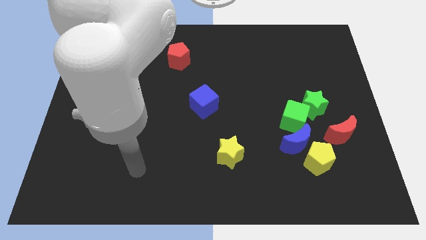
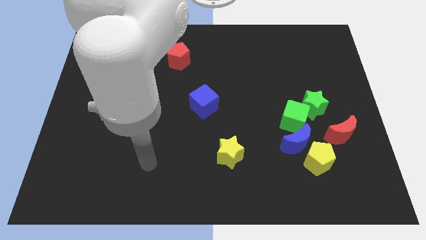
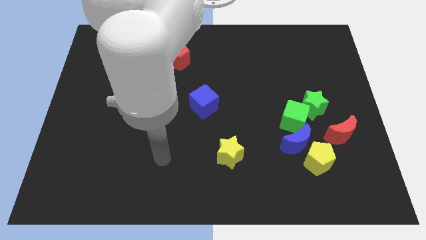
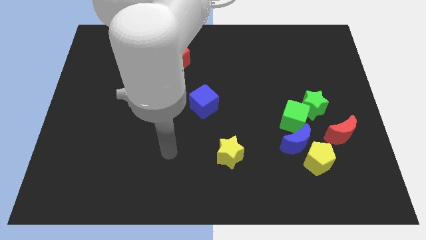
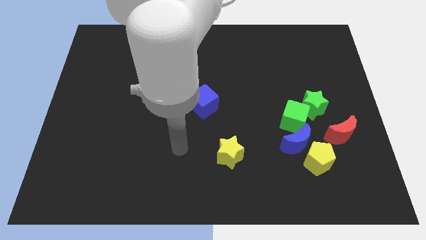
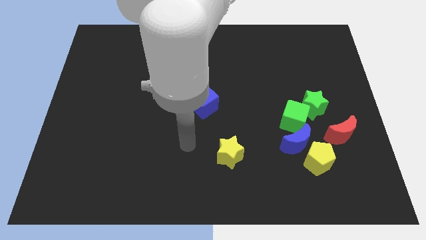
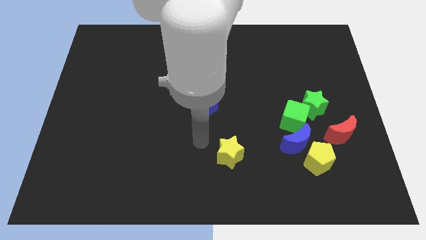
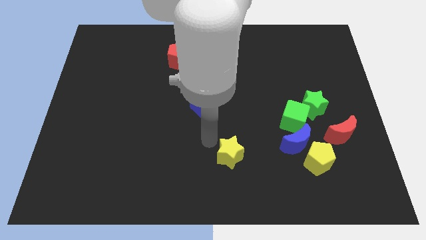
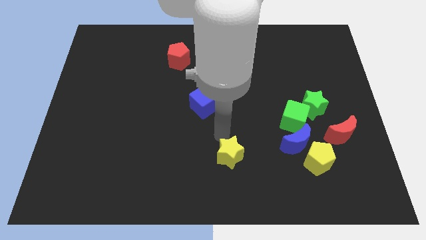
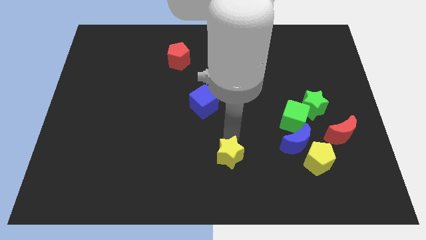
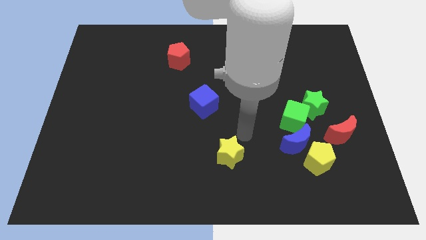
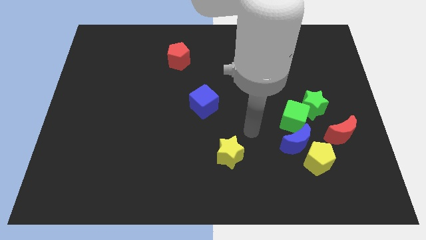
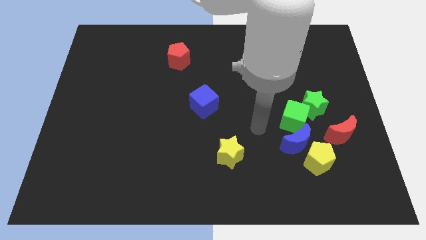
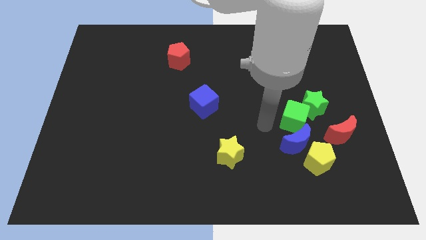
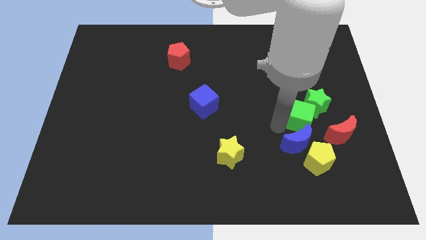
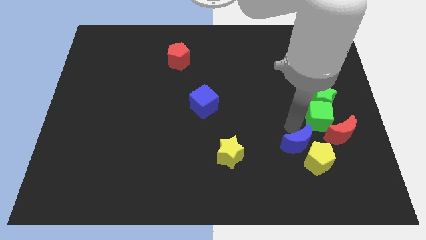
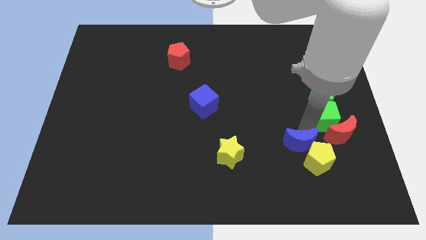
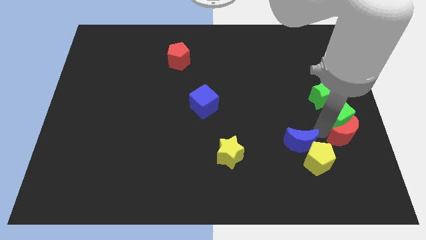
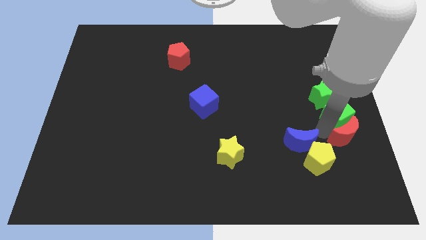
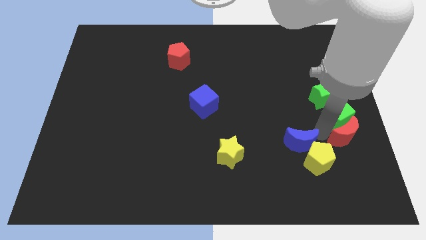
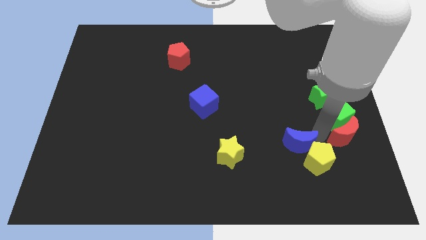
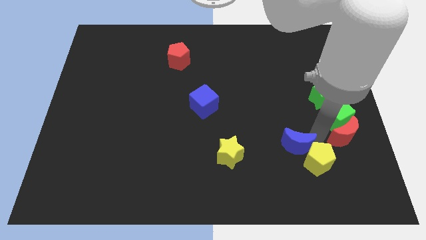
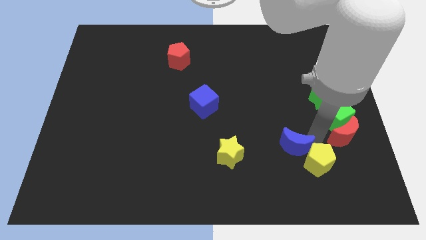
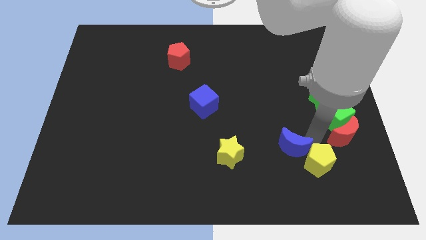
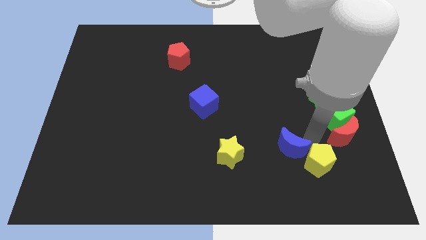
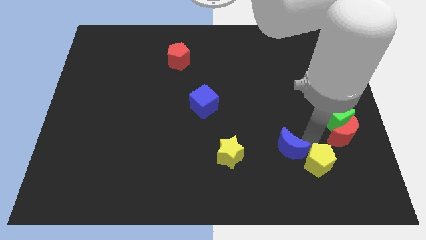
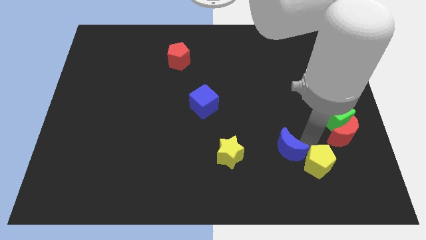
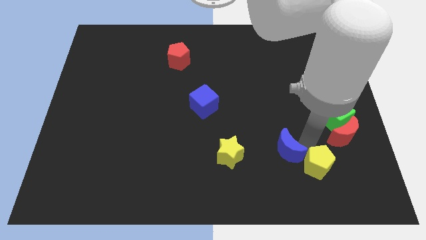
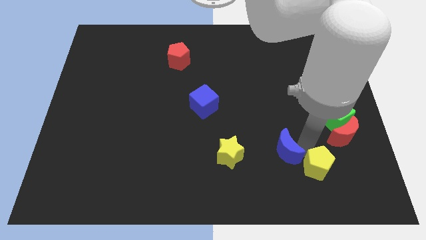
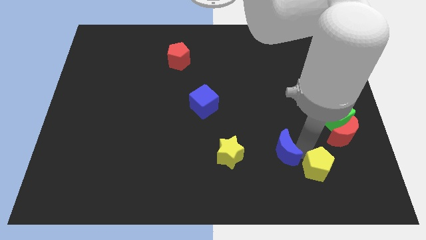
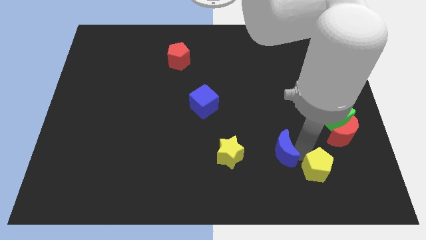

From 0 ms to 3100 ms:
separate the blue moon from the yellow pentagon and green cube

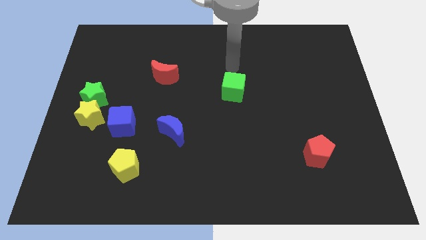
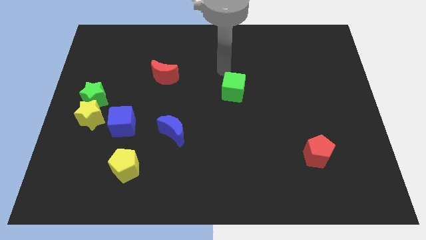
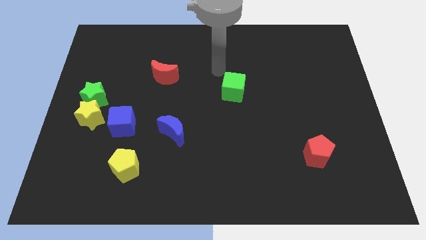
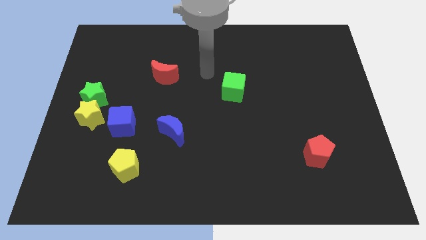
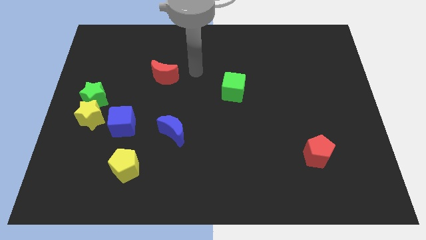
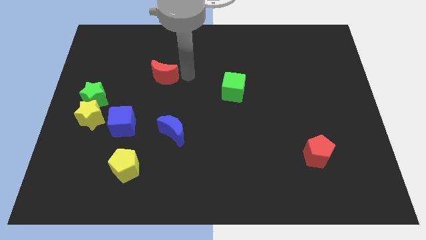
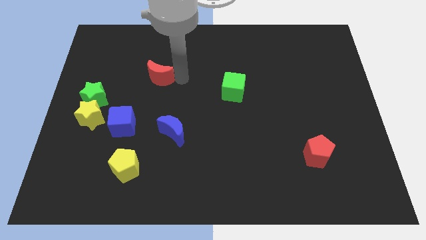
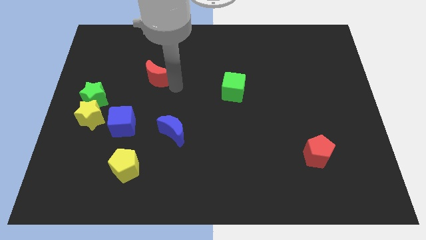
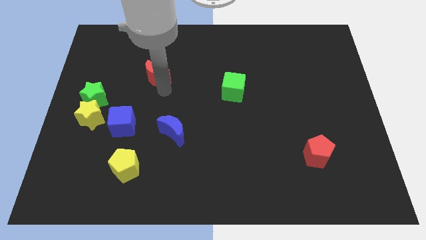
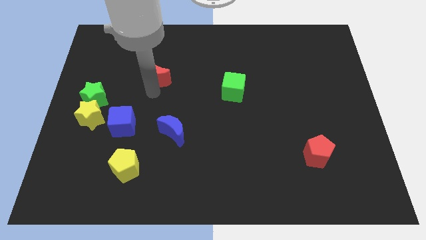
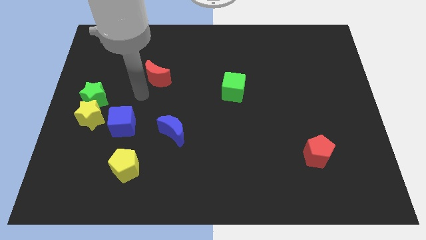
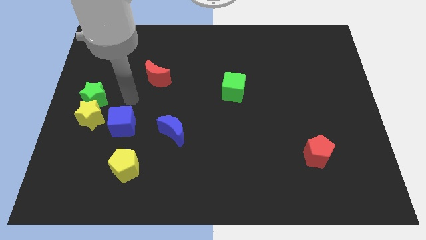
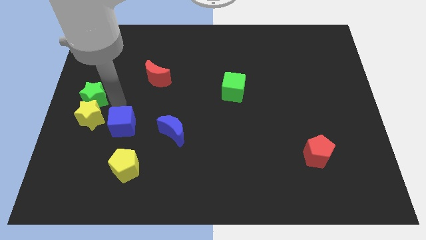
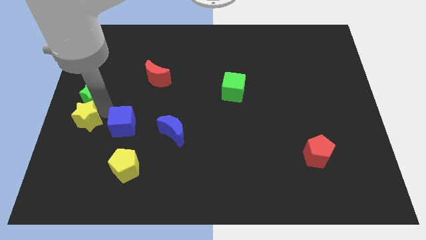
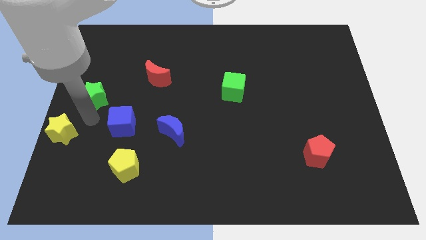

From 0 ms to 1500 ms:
move the green star away from the yellow star

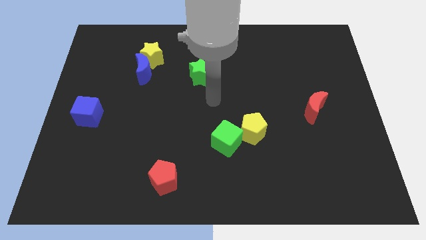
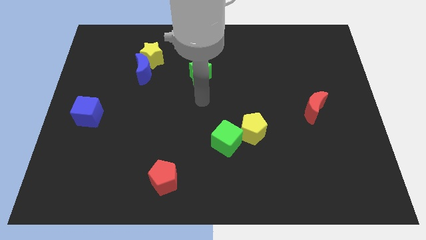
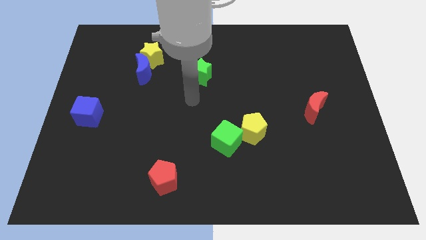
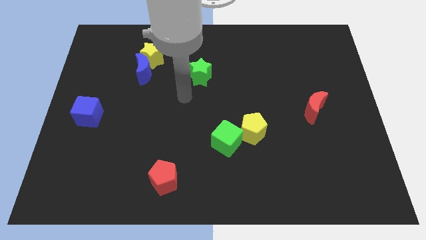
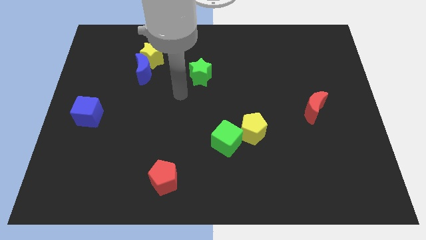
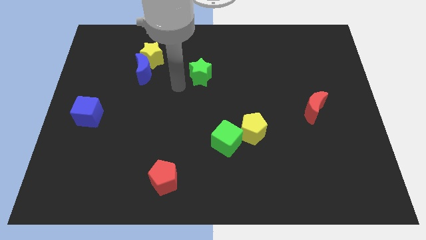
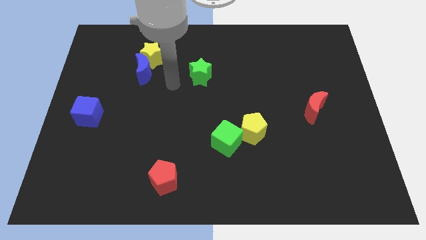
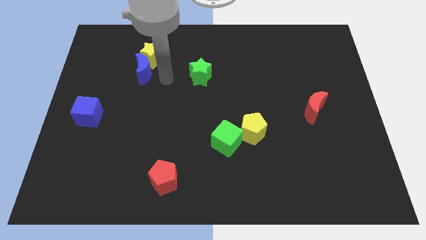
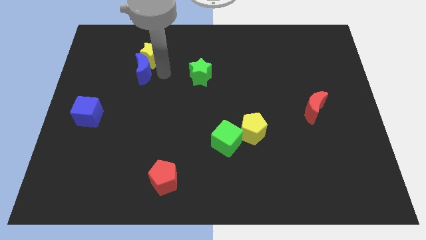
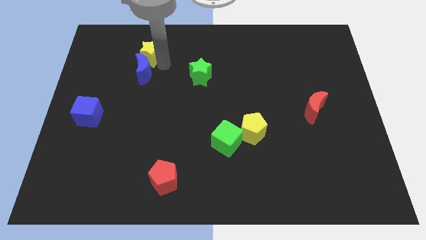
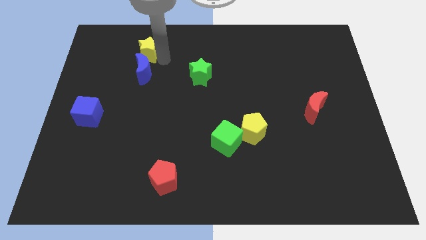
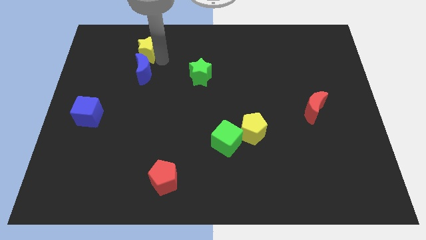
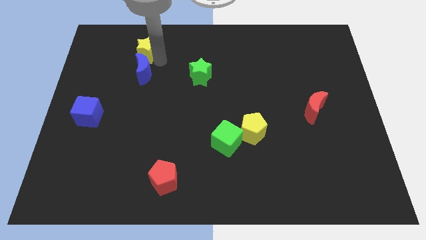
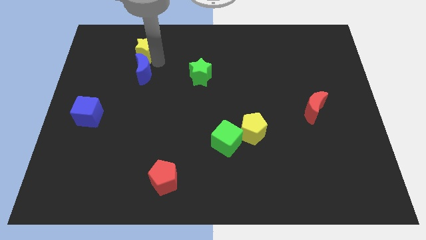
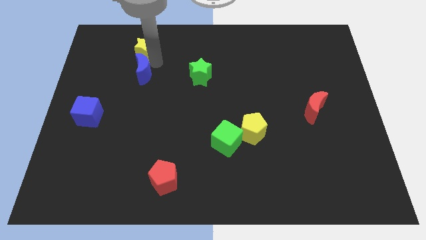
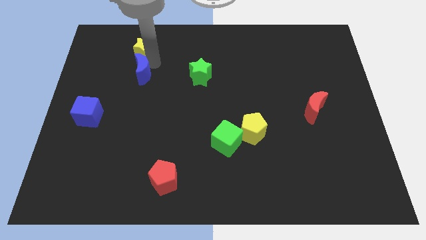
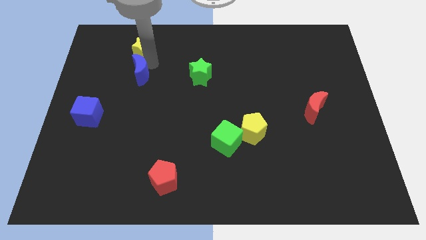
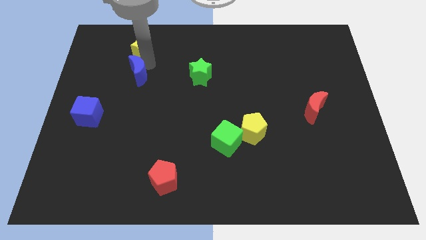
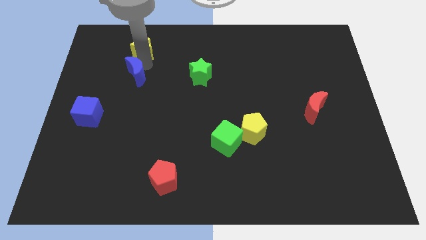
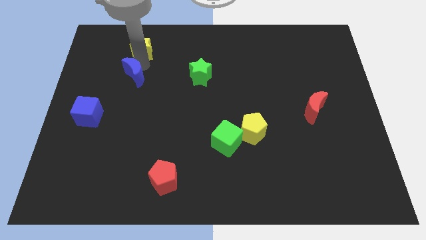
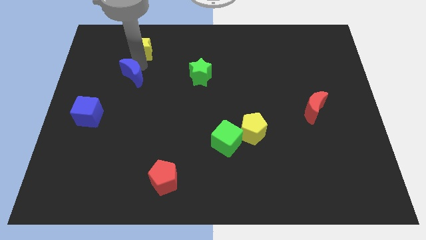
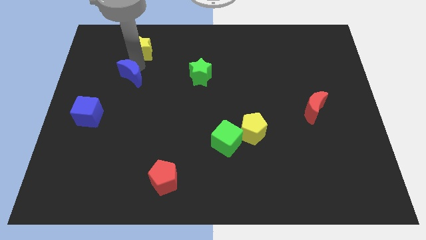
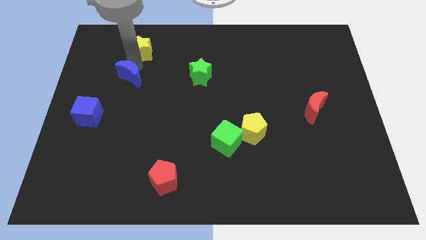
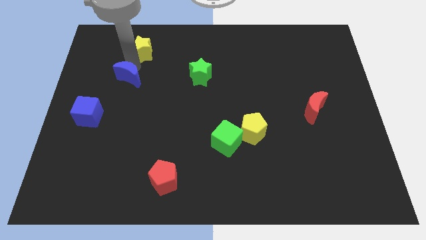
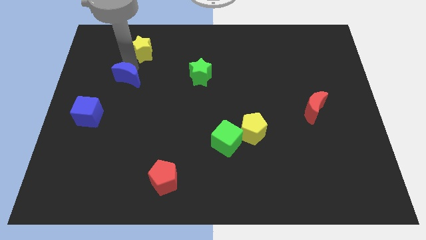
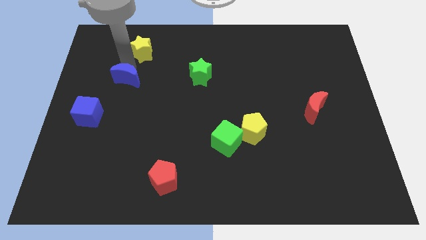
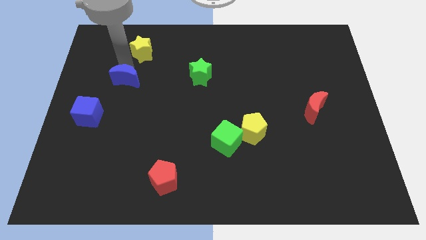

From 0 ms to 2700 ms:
pull the blue moon apart from the yellow star

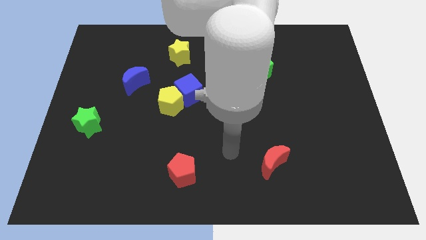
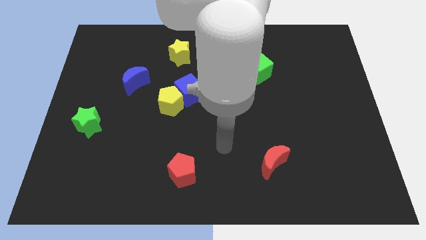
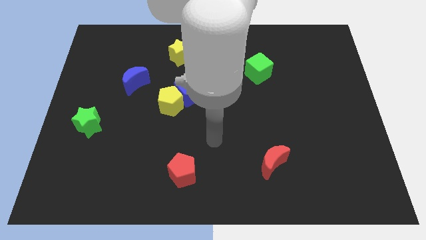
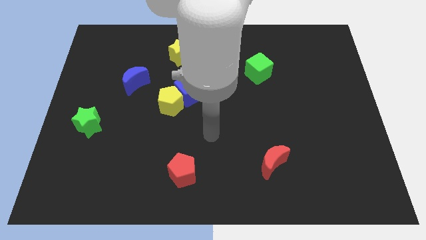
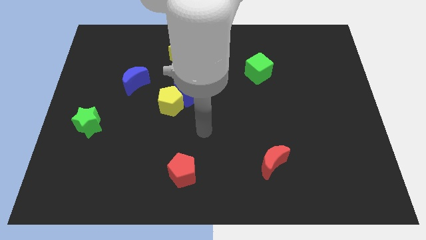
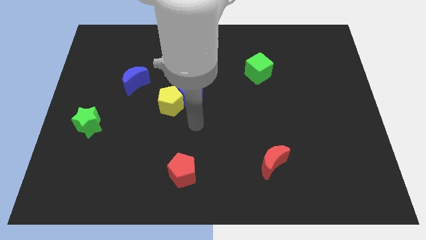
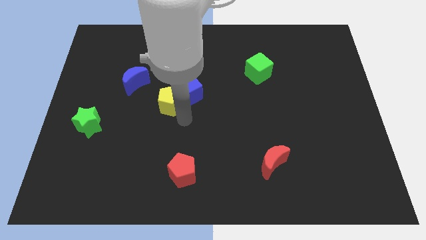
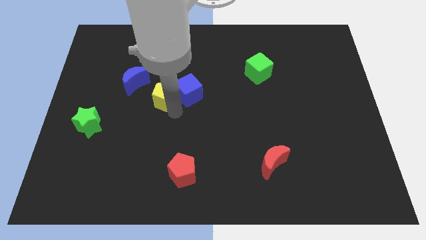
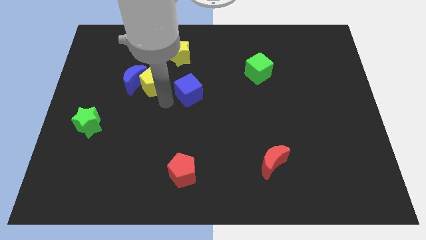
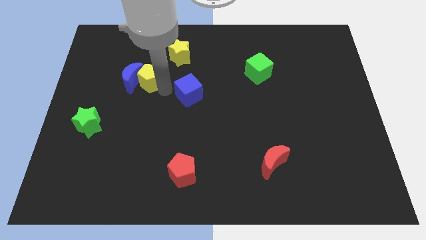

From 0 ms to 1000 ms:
move the blue cube away from the yellow pentagon

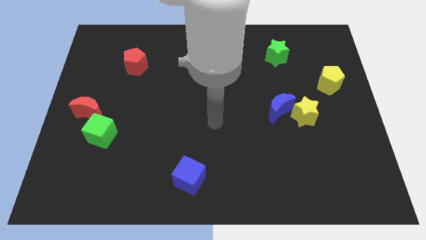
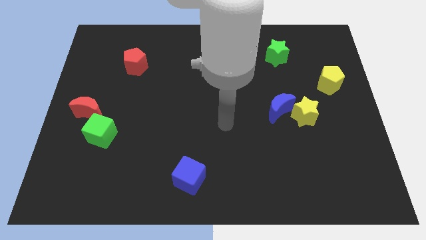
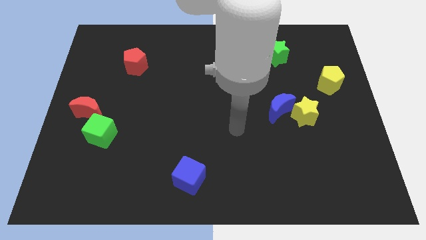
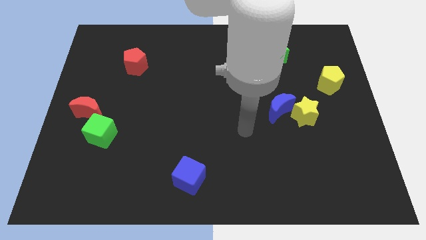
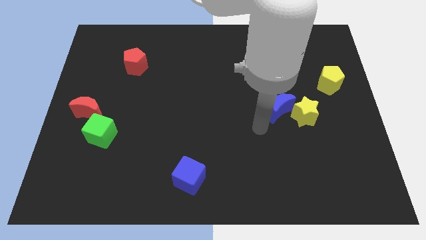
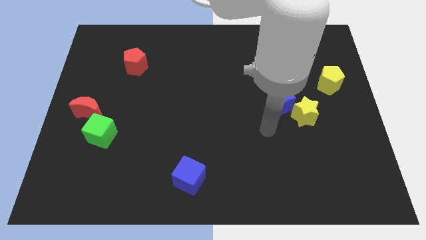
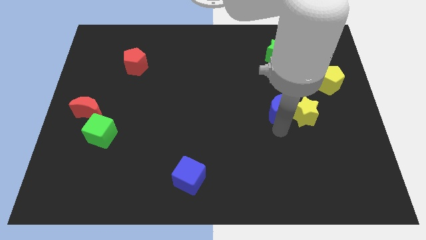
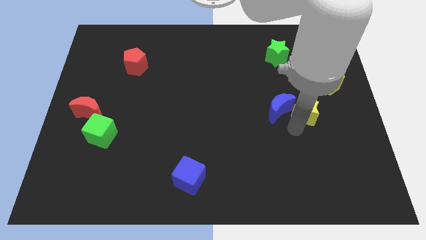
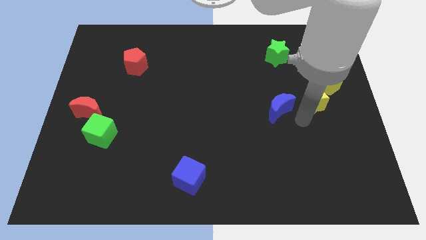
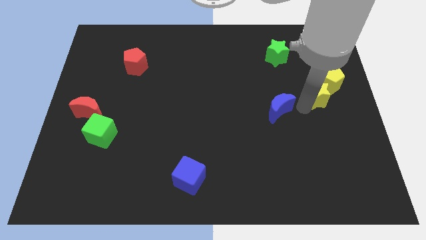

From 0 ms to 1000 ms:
separate the blue moon from the yellow star
